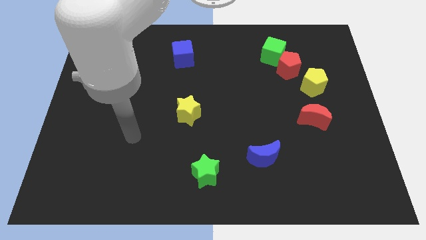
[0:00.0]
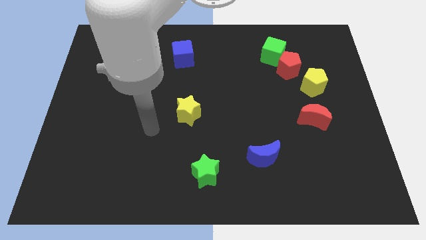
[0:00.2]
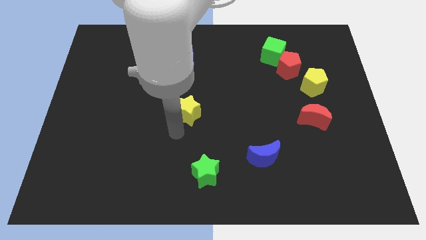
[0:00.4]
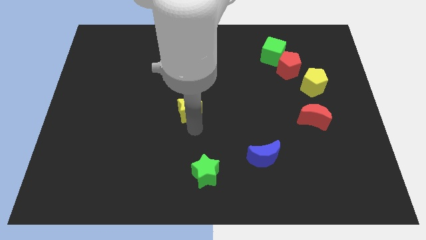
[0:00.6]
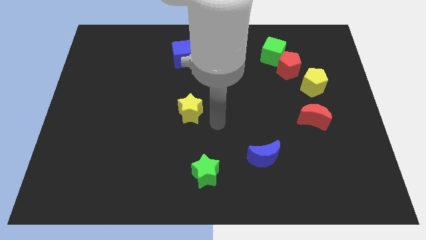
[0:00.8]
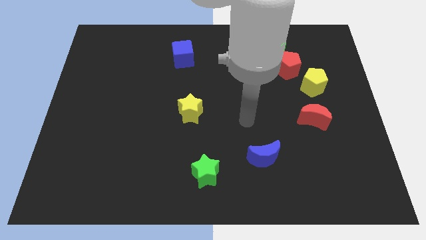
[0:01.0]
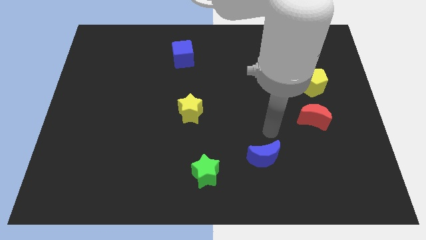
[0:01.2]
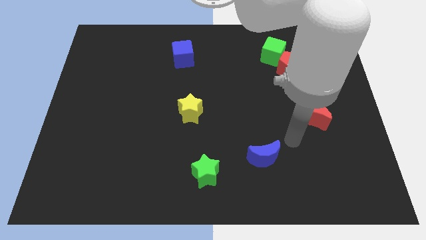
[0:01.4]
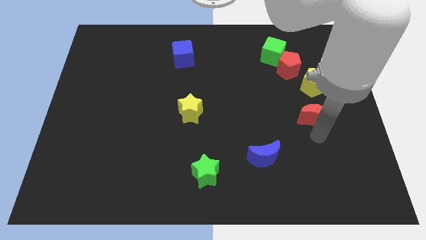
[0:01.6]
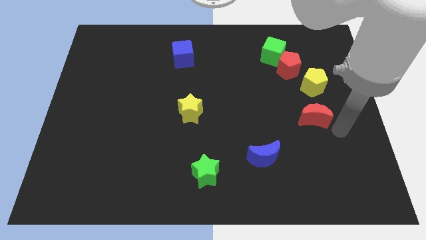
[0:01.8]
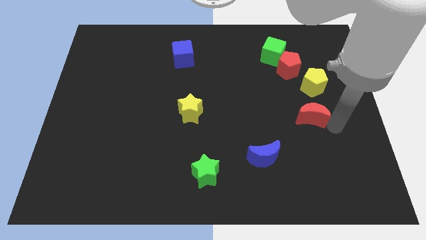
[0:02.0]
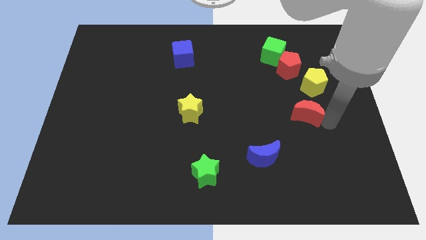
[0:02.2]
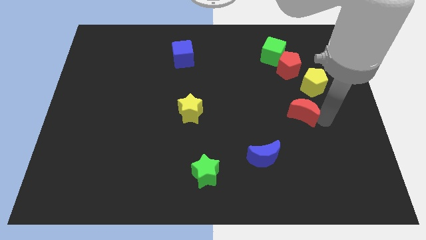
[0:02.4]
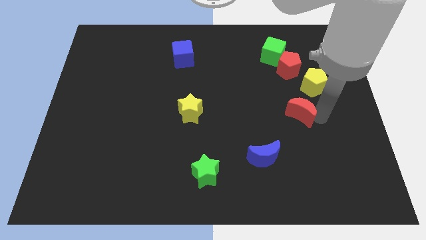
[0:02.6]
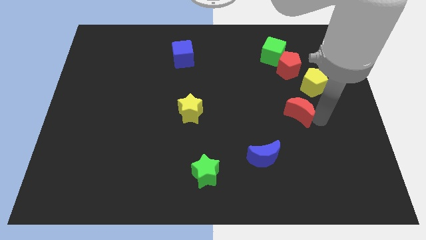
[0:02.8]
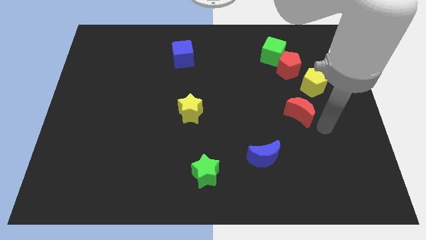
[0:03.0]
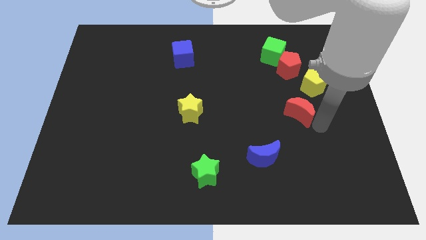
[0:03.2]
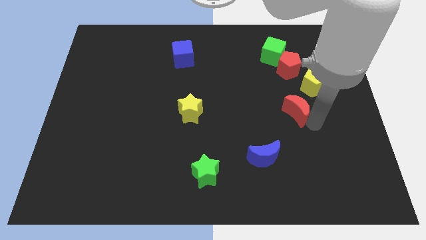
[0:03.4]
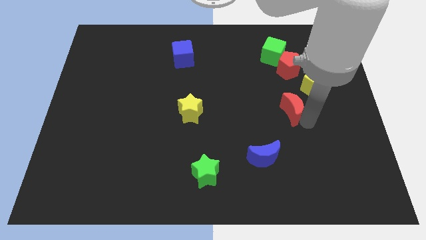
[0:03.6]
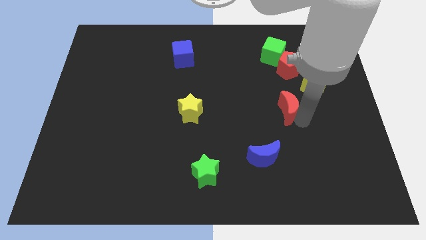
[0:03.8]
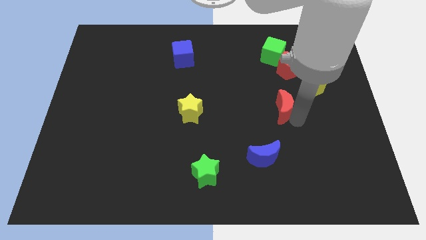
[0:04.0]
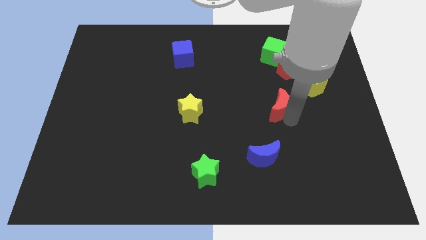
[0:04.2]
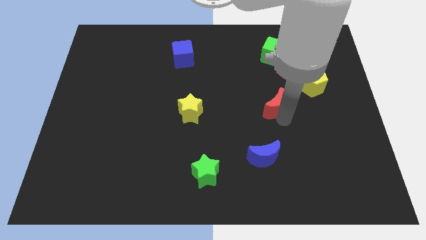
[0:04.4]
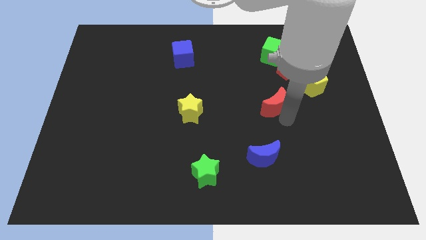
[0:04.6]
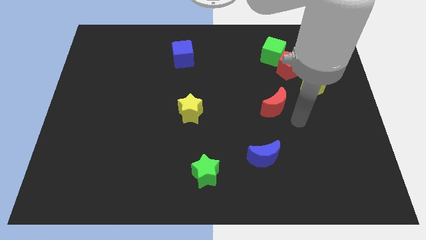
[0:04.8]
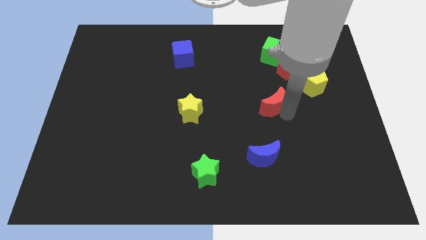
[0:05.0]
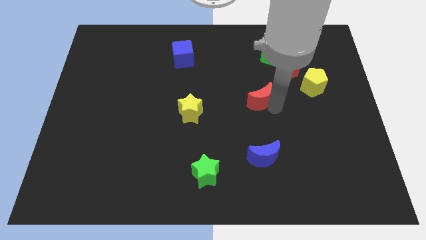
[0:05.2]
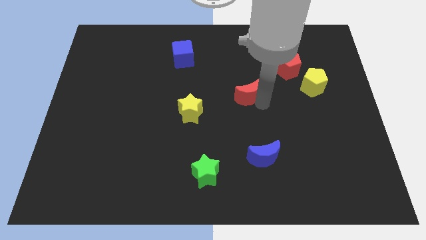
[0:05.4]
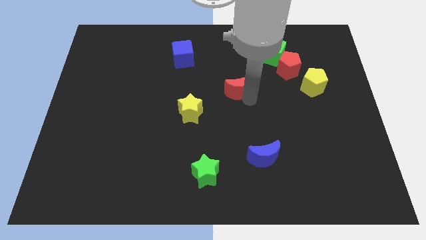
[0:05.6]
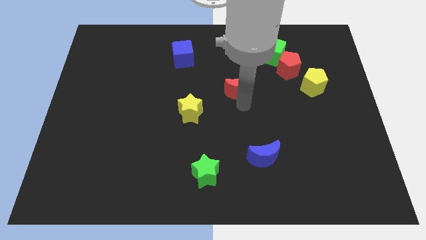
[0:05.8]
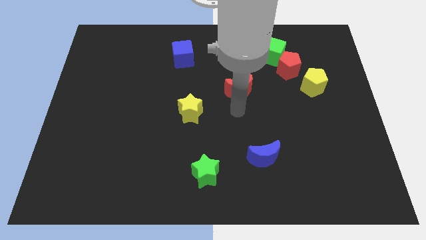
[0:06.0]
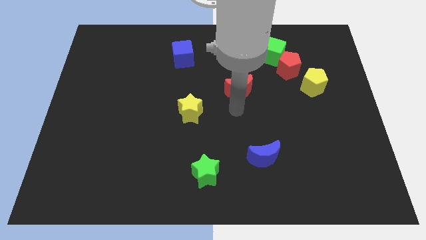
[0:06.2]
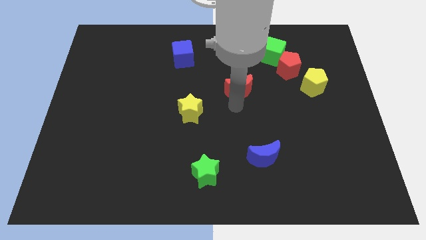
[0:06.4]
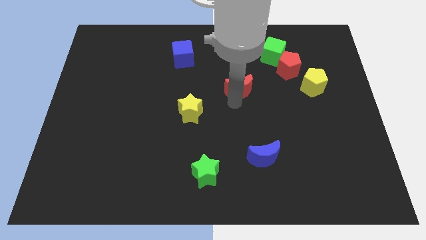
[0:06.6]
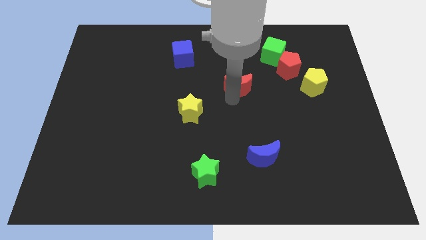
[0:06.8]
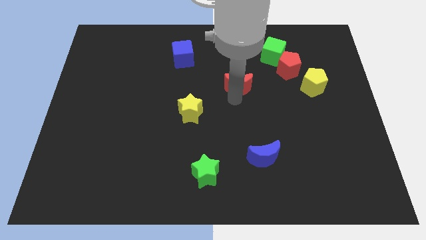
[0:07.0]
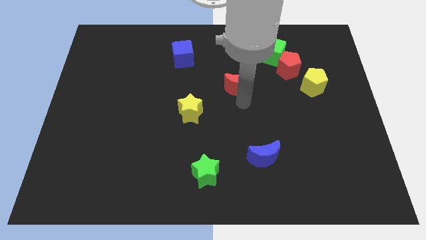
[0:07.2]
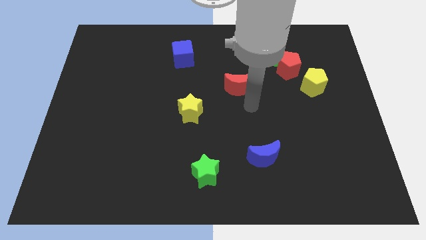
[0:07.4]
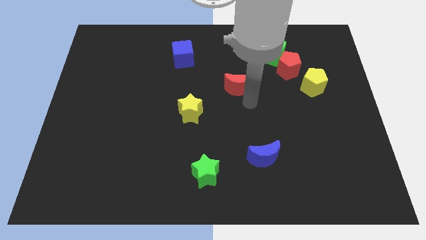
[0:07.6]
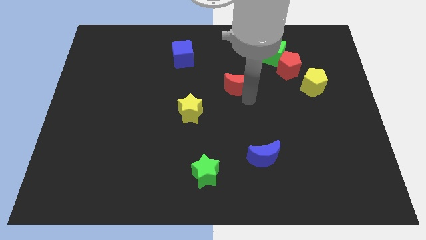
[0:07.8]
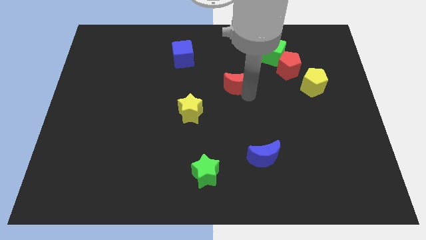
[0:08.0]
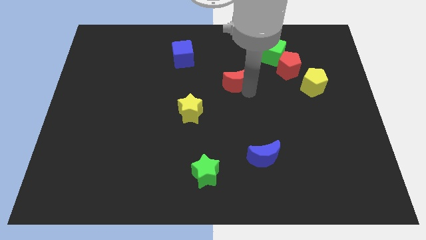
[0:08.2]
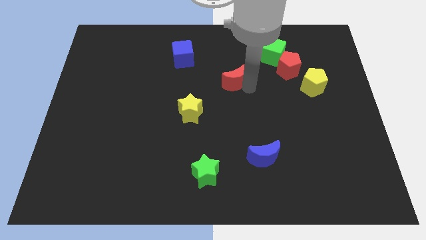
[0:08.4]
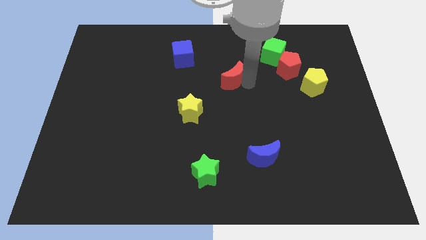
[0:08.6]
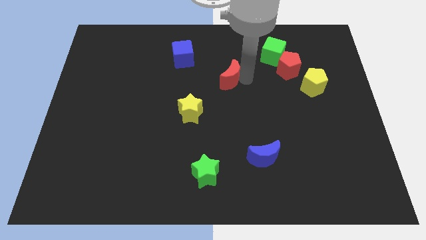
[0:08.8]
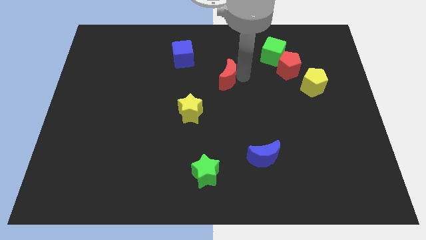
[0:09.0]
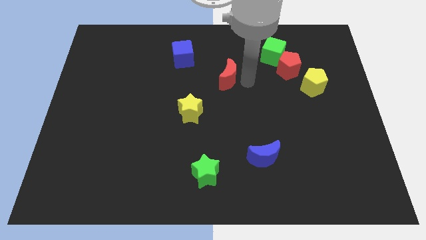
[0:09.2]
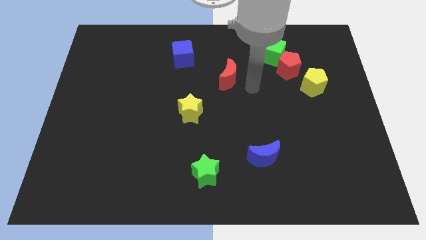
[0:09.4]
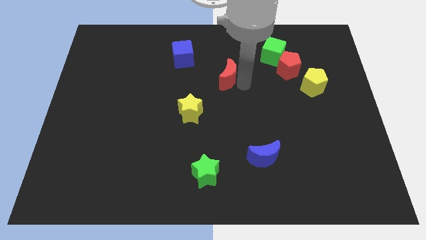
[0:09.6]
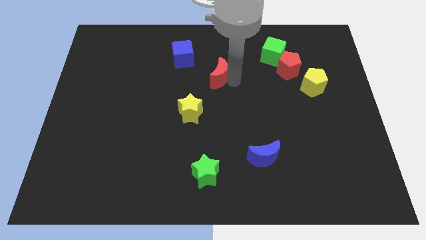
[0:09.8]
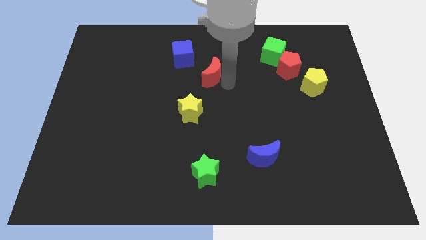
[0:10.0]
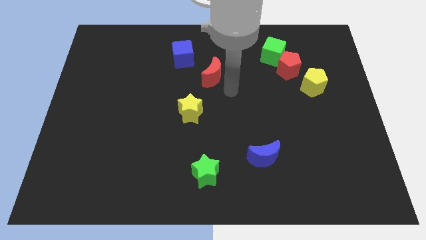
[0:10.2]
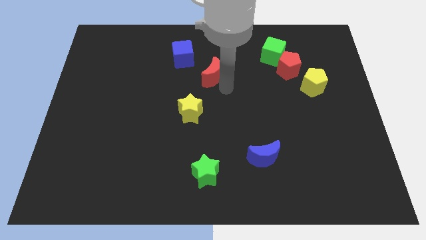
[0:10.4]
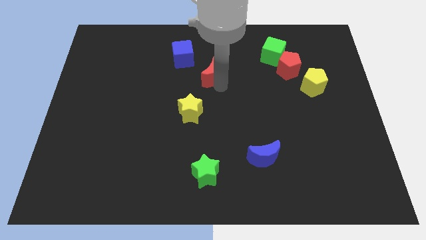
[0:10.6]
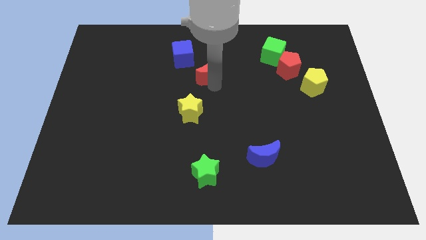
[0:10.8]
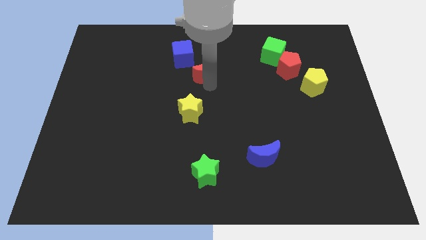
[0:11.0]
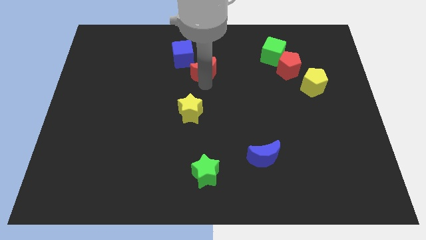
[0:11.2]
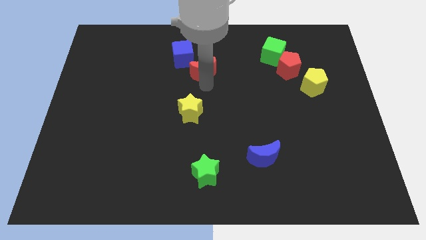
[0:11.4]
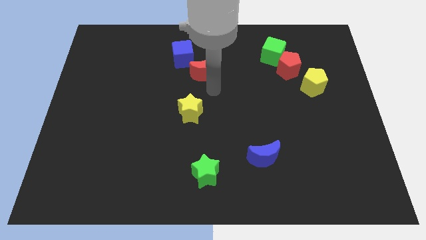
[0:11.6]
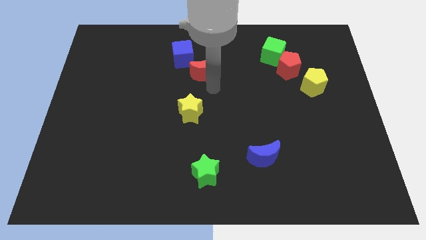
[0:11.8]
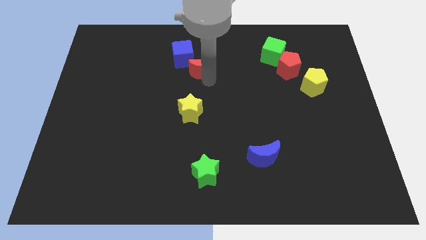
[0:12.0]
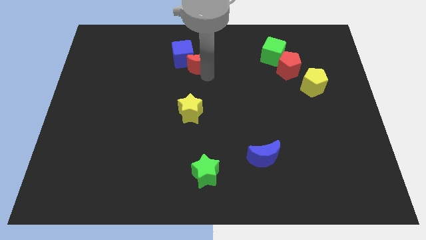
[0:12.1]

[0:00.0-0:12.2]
push the red moon close to the blue cube

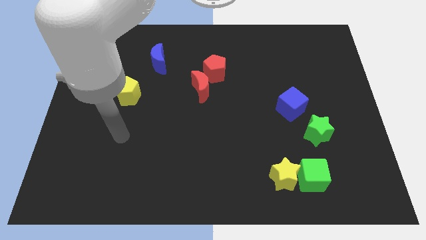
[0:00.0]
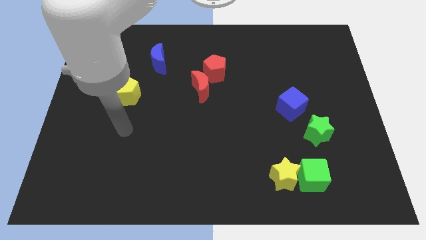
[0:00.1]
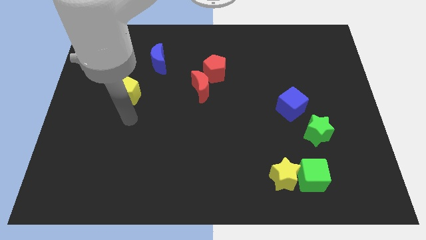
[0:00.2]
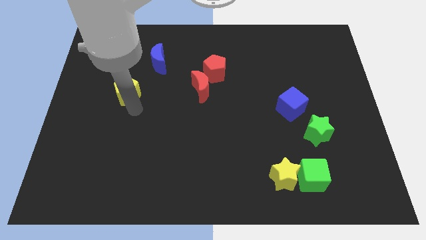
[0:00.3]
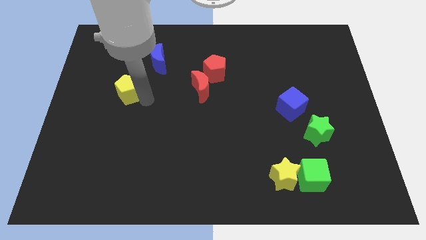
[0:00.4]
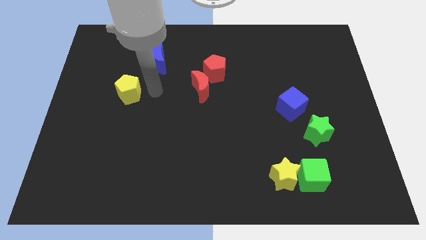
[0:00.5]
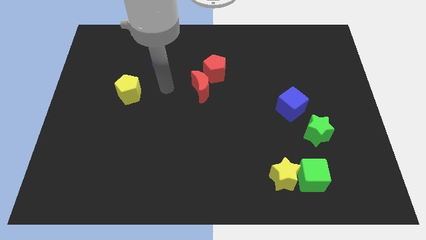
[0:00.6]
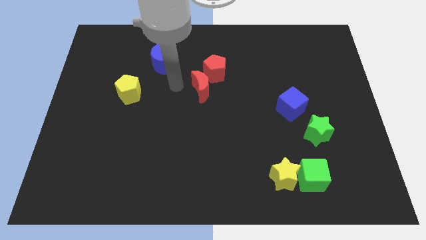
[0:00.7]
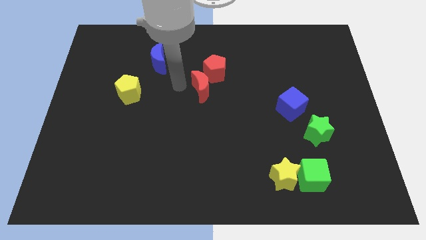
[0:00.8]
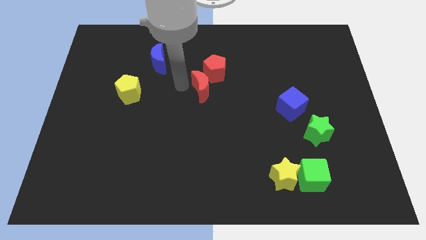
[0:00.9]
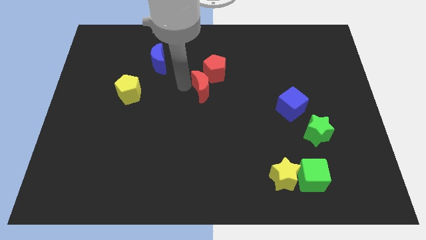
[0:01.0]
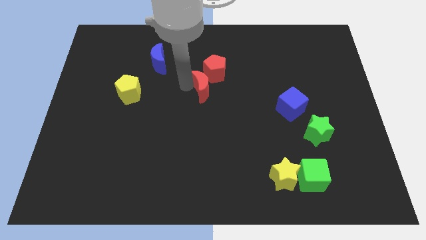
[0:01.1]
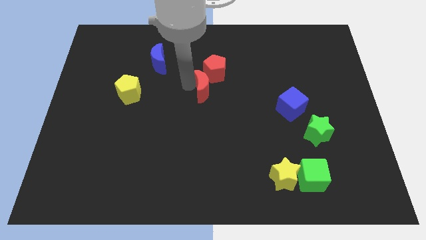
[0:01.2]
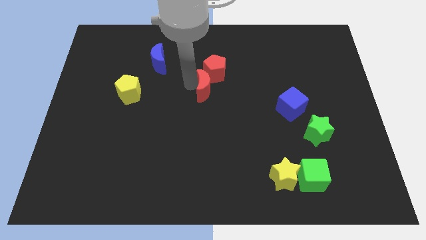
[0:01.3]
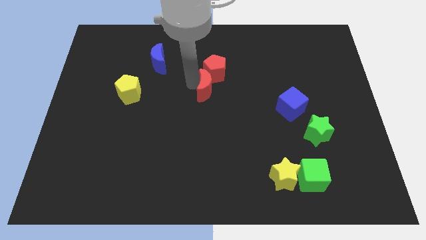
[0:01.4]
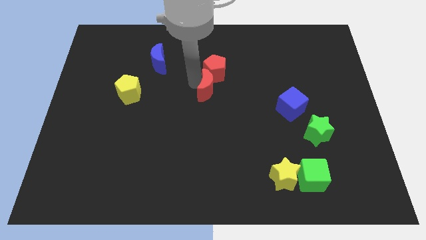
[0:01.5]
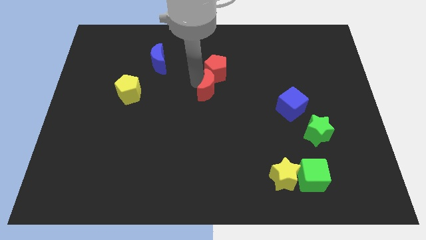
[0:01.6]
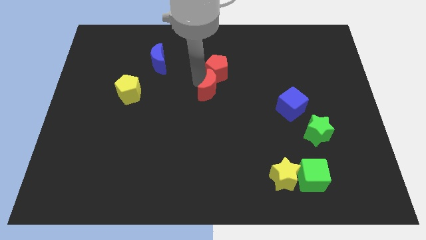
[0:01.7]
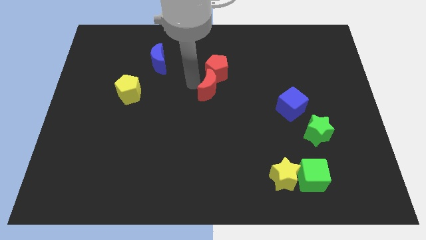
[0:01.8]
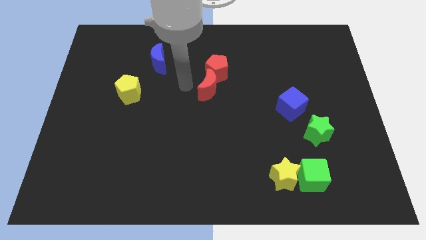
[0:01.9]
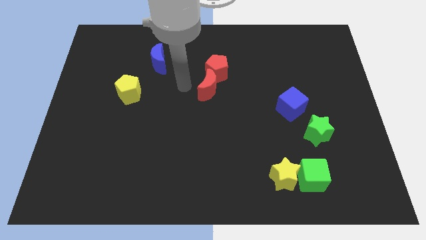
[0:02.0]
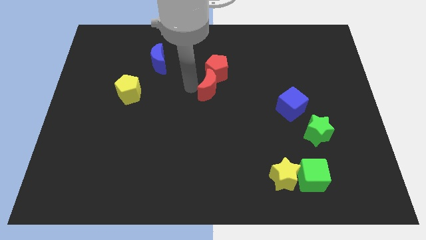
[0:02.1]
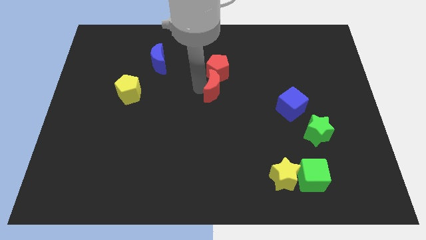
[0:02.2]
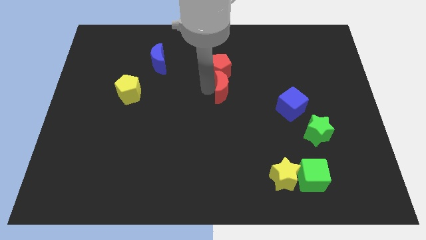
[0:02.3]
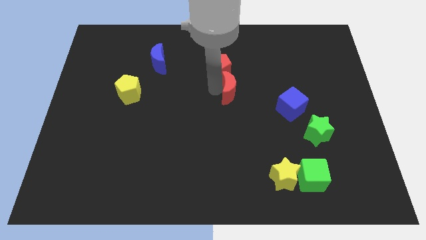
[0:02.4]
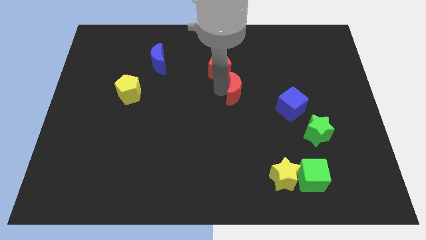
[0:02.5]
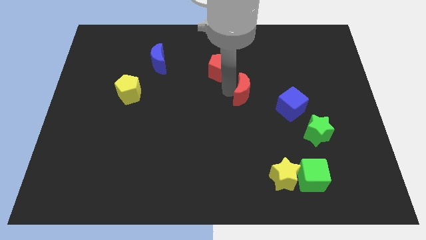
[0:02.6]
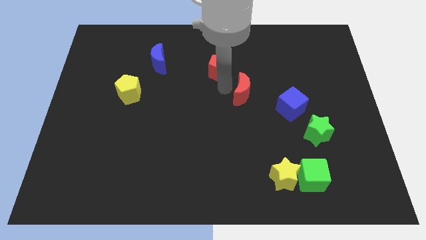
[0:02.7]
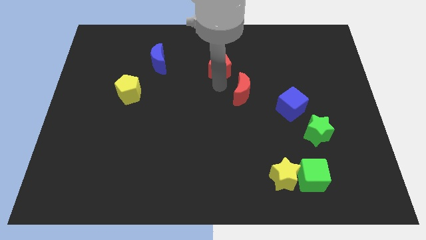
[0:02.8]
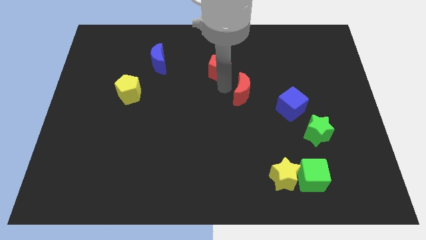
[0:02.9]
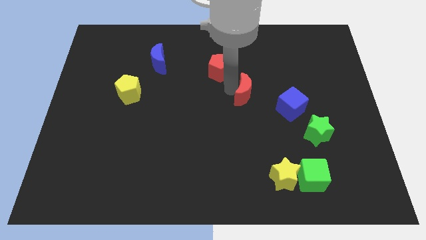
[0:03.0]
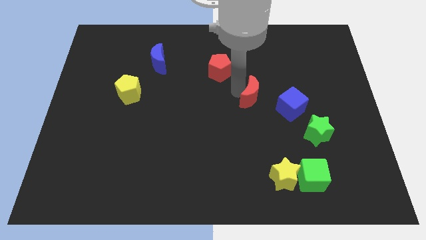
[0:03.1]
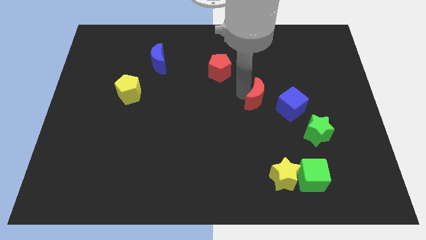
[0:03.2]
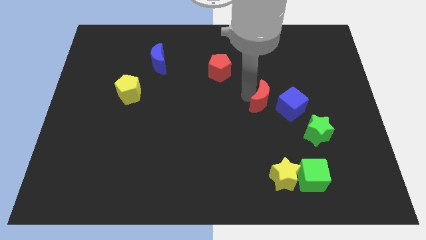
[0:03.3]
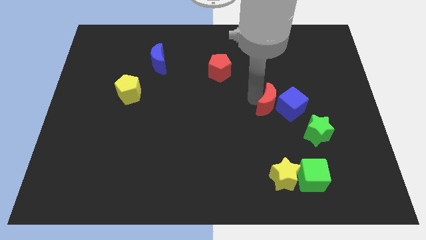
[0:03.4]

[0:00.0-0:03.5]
slide the red moon towards the blue cube
